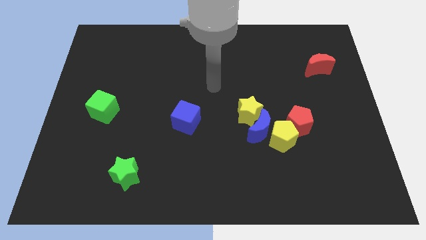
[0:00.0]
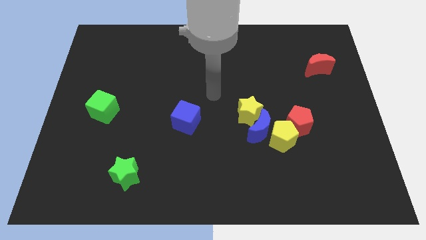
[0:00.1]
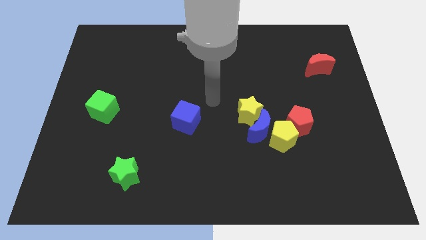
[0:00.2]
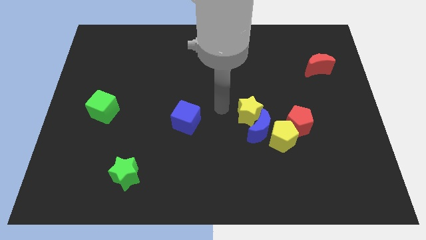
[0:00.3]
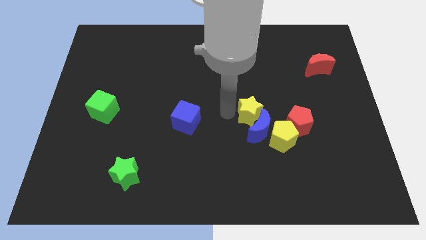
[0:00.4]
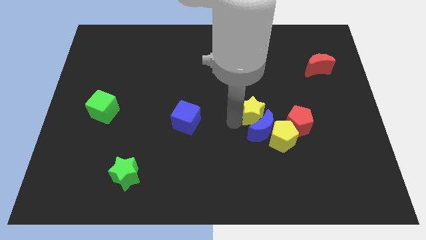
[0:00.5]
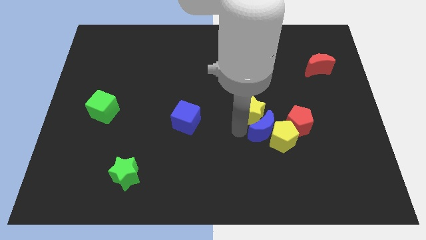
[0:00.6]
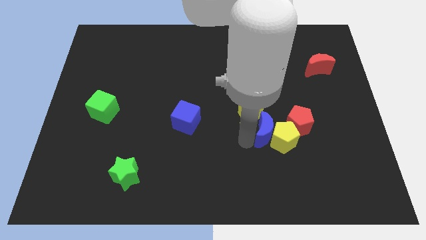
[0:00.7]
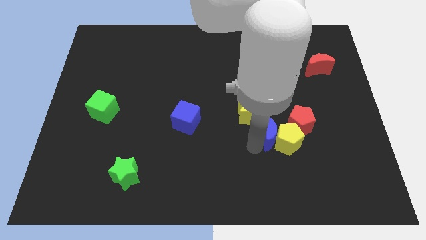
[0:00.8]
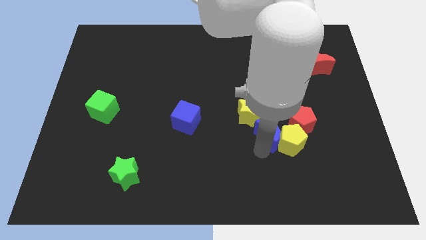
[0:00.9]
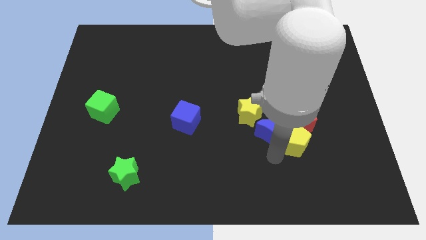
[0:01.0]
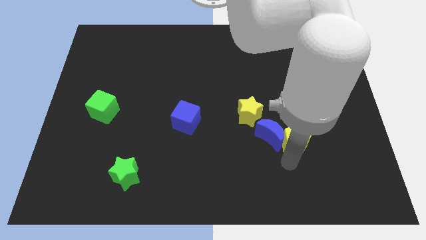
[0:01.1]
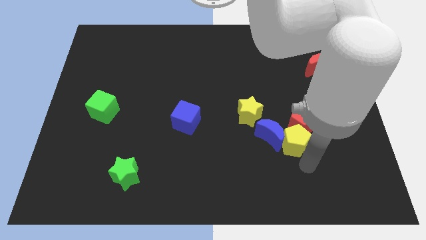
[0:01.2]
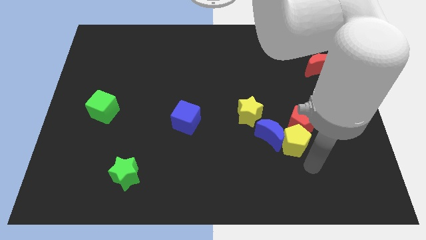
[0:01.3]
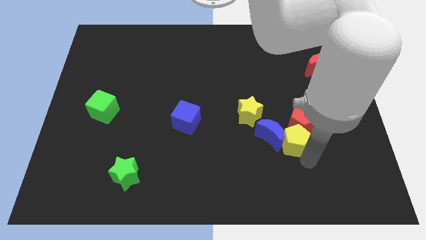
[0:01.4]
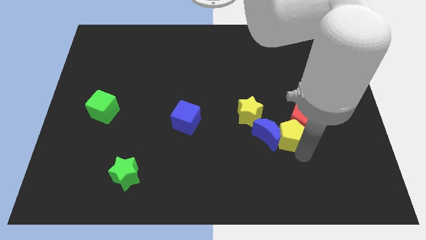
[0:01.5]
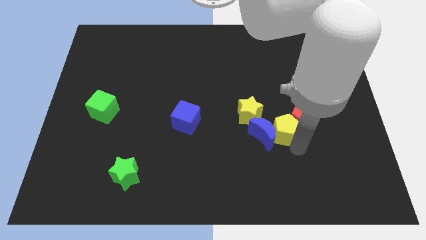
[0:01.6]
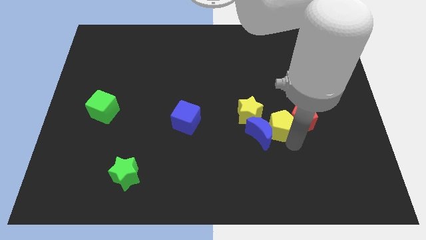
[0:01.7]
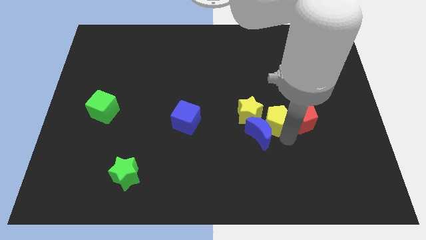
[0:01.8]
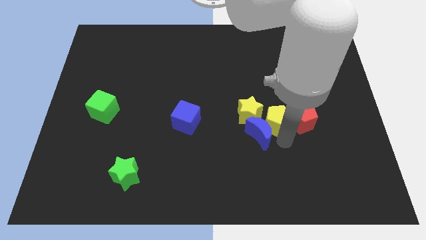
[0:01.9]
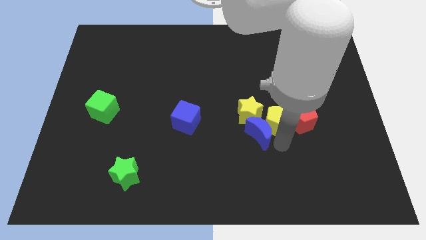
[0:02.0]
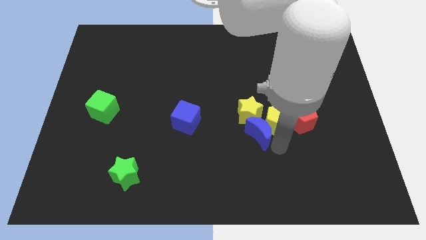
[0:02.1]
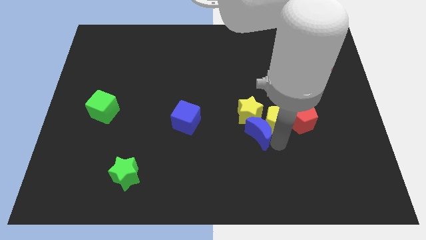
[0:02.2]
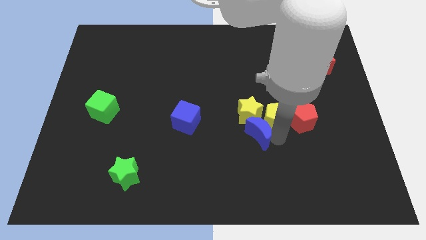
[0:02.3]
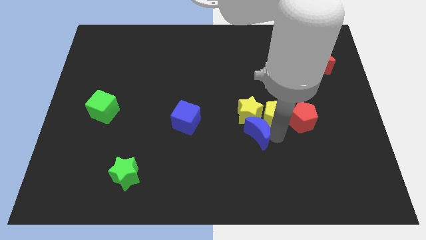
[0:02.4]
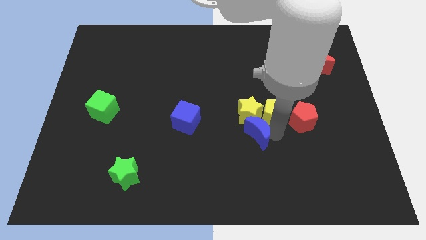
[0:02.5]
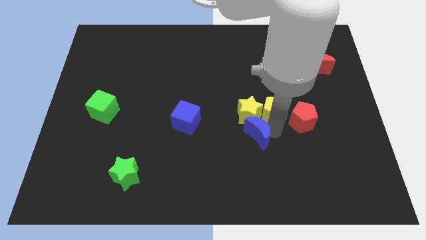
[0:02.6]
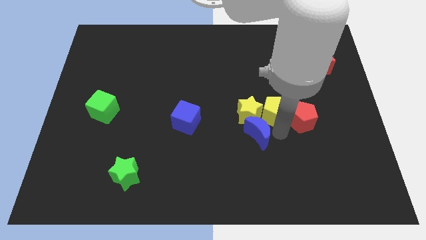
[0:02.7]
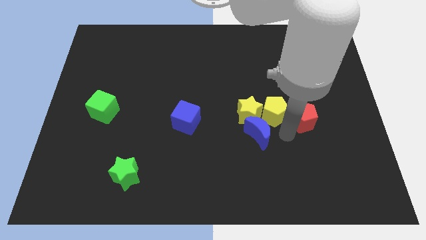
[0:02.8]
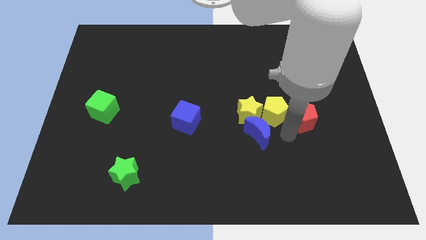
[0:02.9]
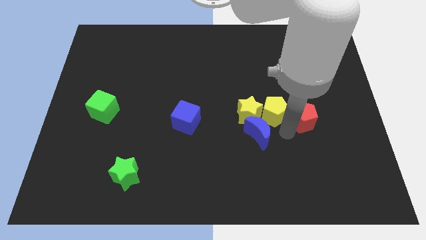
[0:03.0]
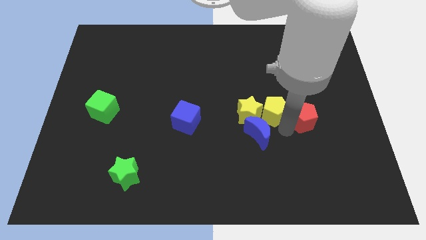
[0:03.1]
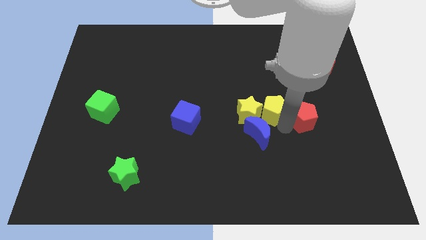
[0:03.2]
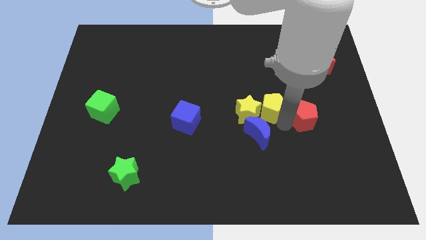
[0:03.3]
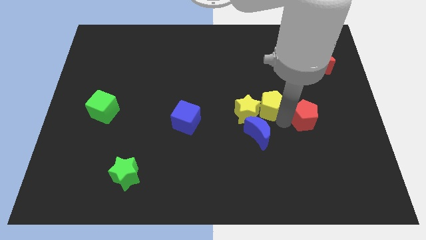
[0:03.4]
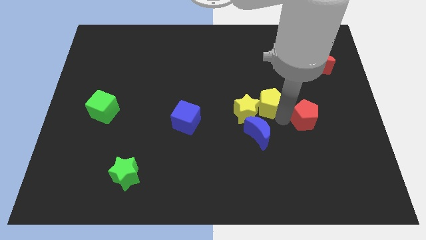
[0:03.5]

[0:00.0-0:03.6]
slide the yellow pentagon a bit up and left diagonally

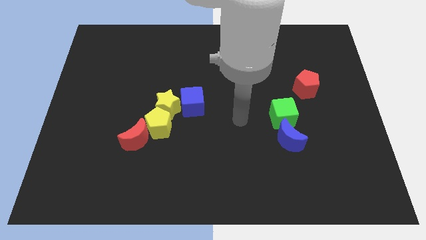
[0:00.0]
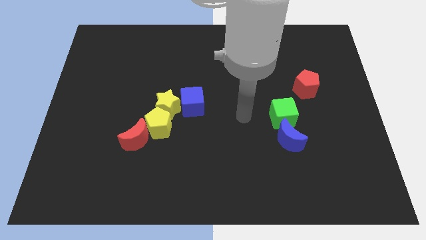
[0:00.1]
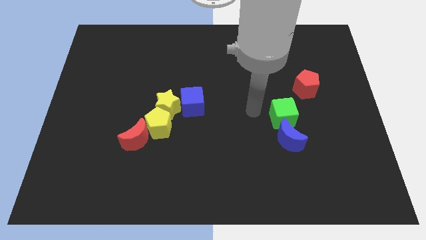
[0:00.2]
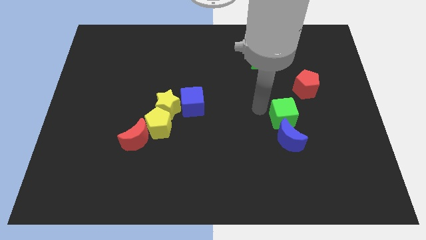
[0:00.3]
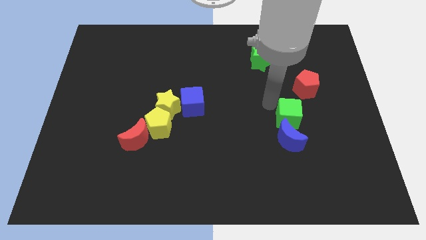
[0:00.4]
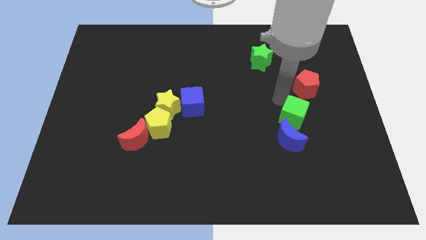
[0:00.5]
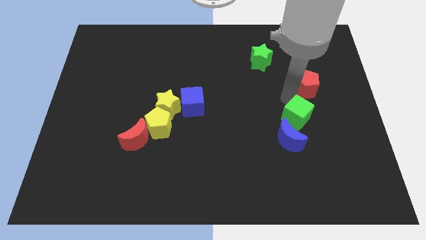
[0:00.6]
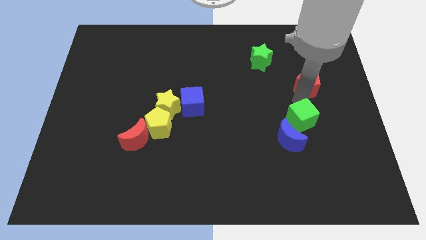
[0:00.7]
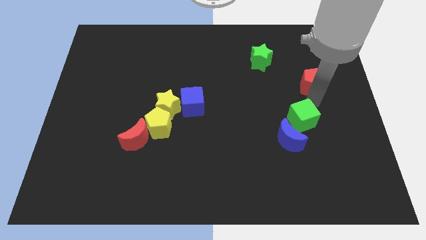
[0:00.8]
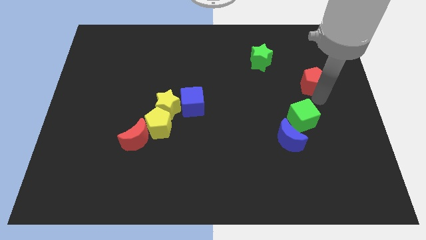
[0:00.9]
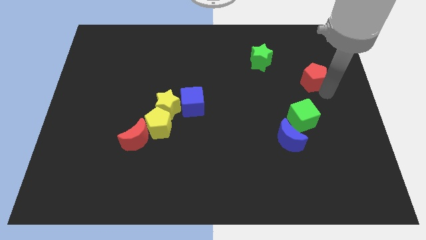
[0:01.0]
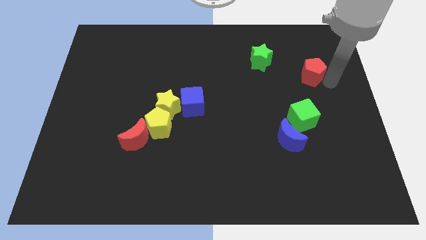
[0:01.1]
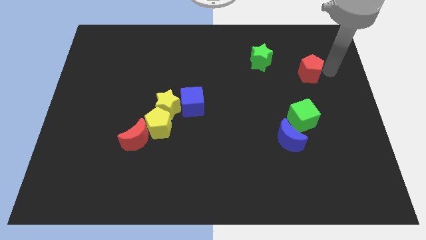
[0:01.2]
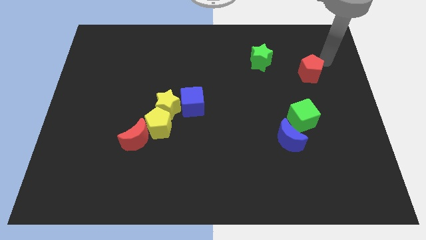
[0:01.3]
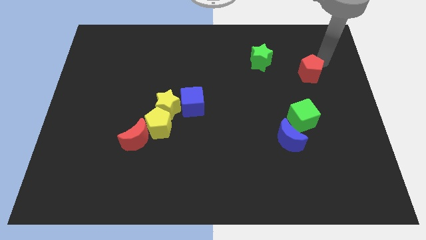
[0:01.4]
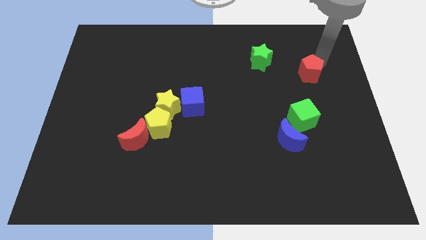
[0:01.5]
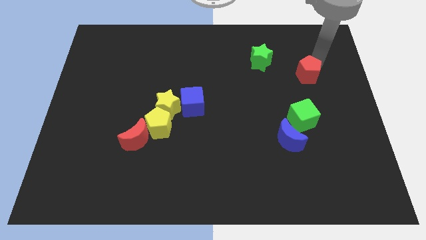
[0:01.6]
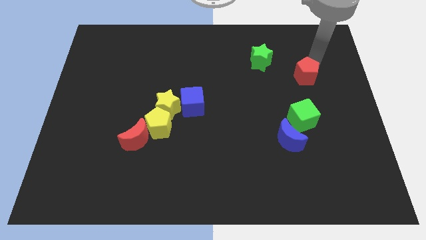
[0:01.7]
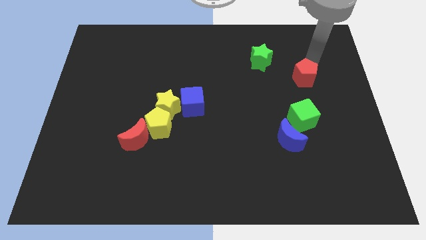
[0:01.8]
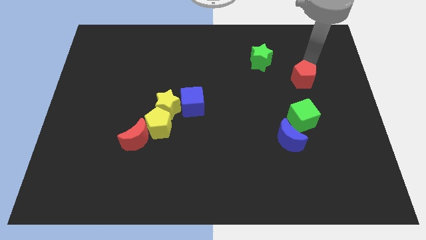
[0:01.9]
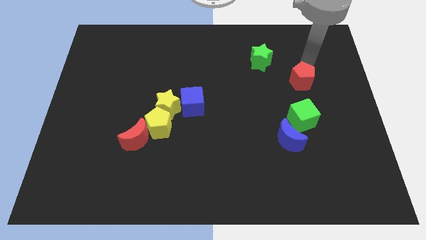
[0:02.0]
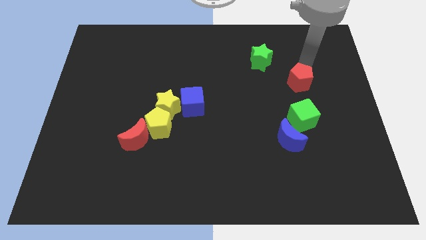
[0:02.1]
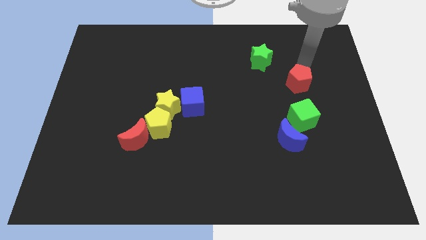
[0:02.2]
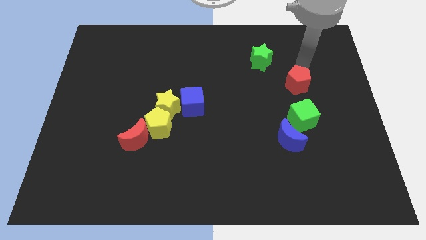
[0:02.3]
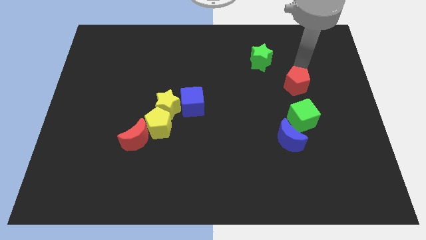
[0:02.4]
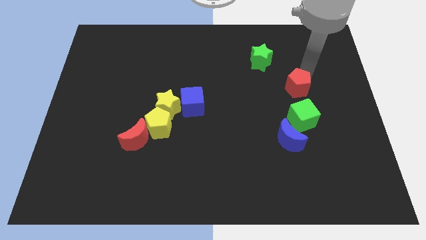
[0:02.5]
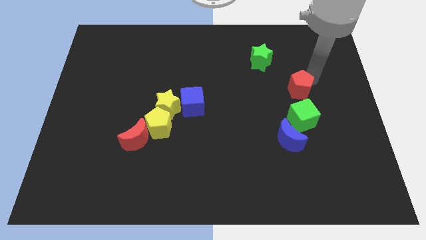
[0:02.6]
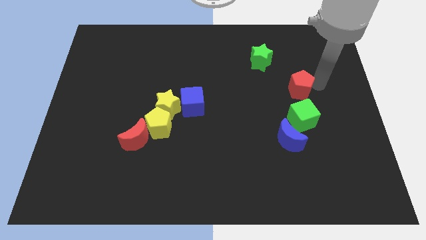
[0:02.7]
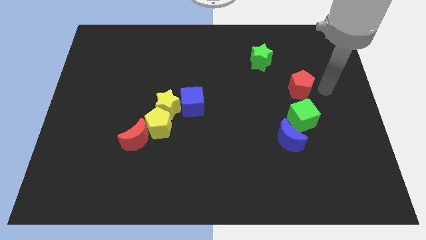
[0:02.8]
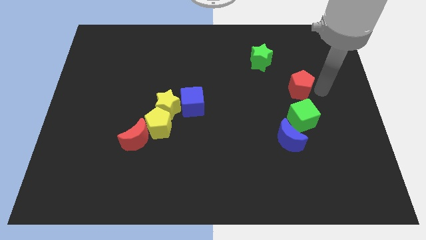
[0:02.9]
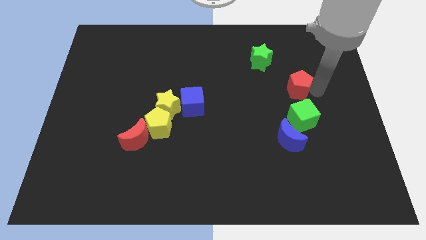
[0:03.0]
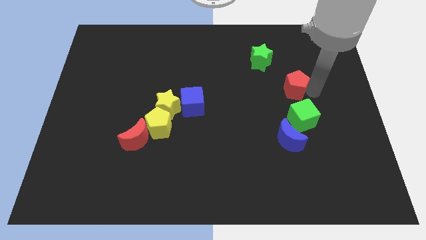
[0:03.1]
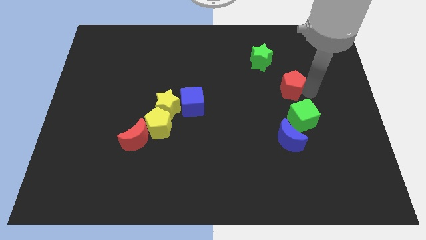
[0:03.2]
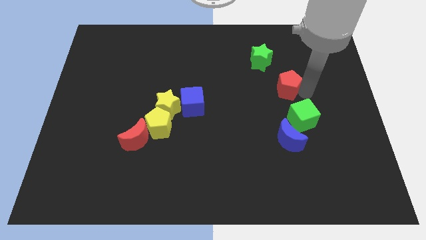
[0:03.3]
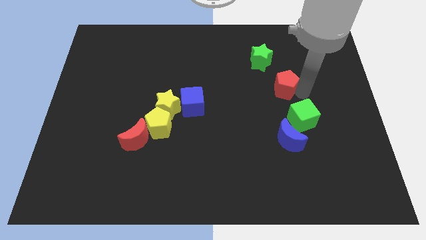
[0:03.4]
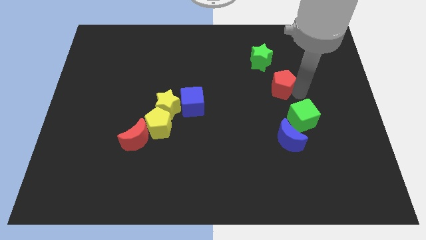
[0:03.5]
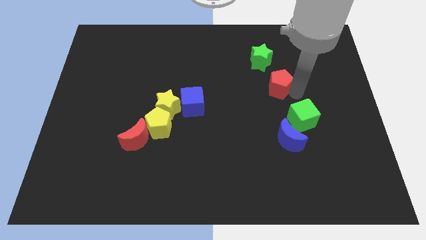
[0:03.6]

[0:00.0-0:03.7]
slightly push the red pentagon left

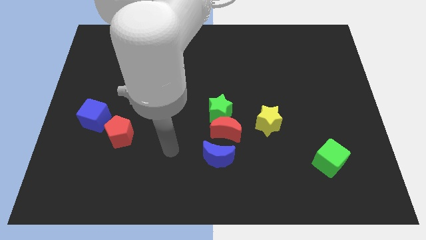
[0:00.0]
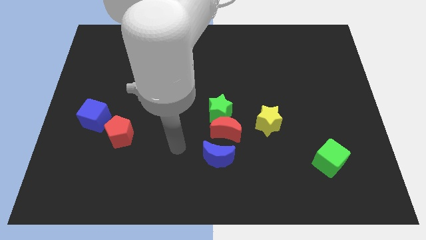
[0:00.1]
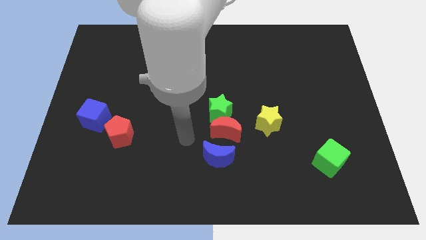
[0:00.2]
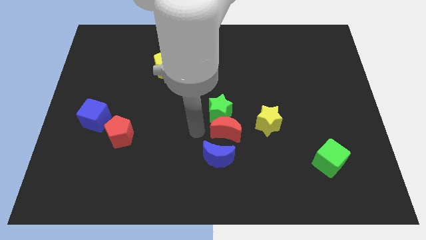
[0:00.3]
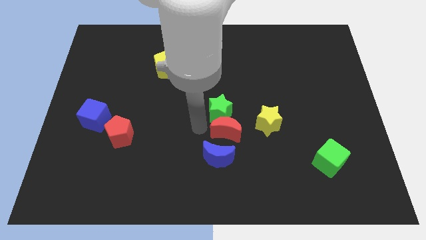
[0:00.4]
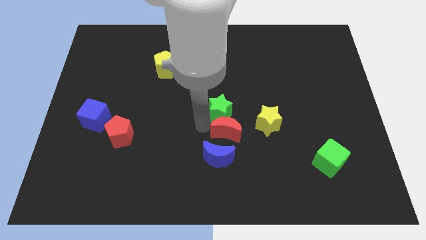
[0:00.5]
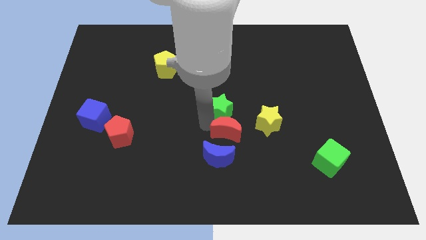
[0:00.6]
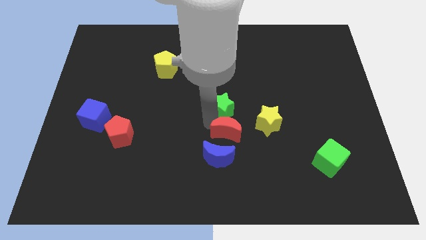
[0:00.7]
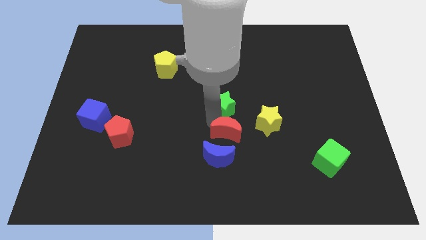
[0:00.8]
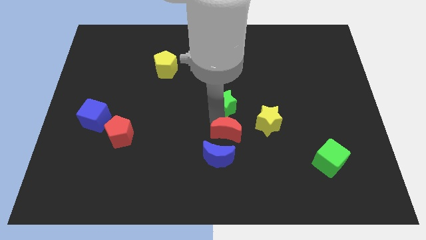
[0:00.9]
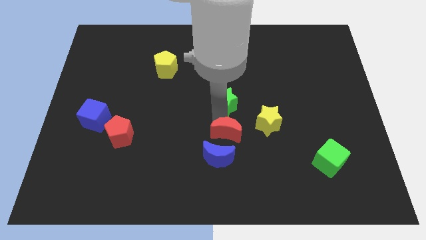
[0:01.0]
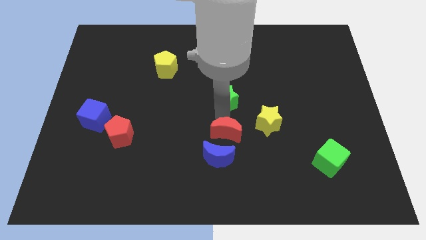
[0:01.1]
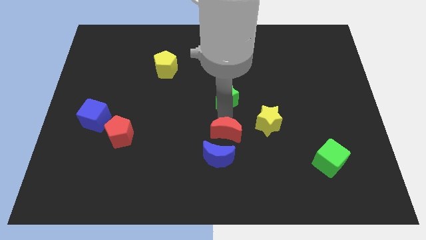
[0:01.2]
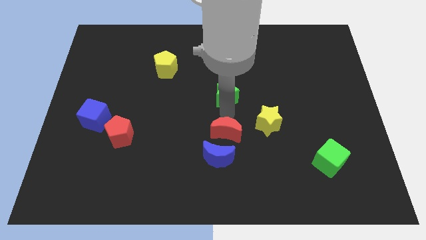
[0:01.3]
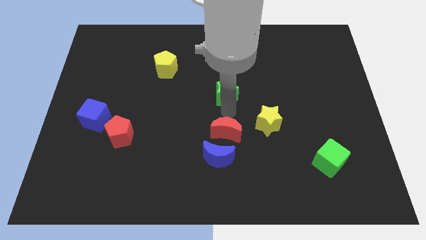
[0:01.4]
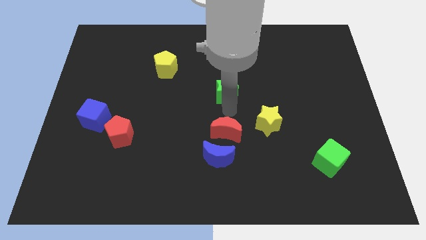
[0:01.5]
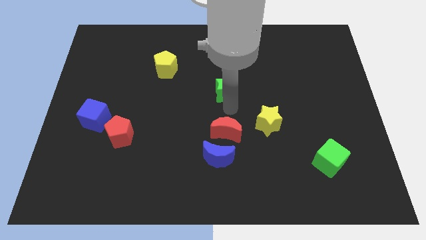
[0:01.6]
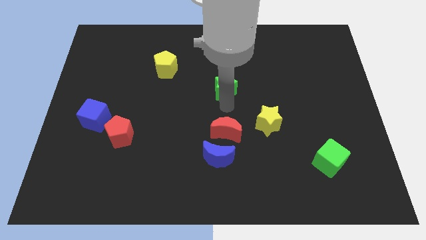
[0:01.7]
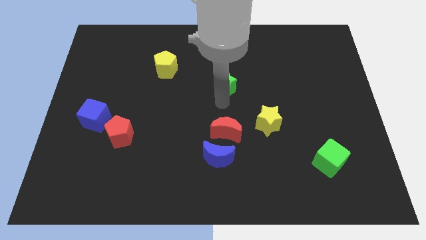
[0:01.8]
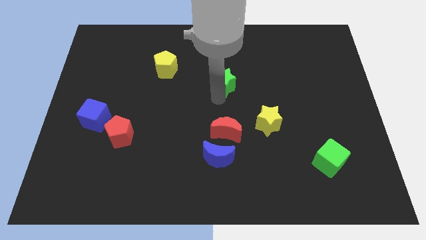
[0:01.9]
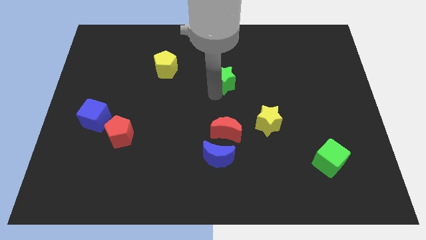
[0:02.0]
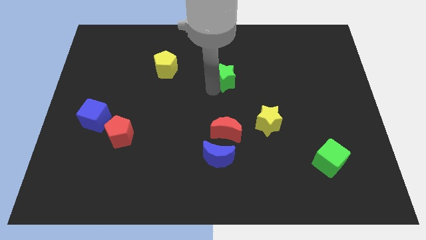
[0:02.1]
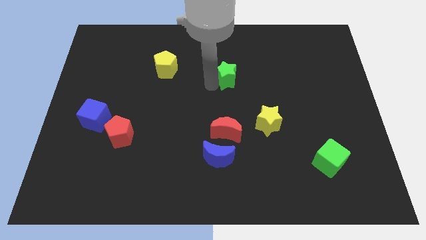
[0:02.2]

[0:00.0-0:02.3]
slide the green star up and right diagonally a little
